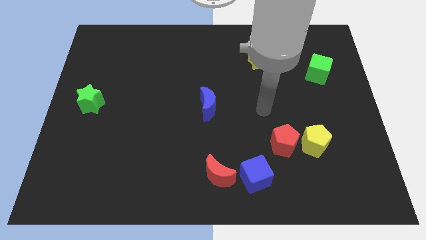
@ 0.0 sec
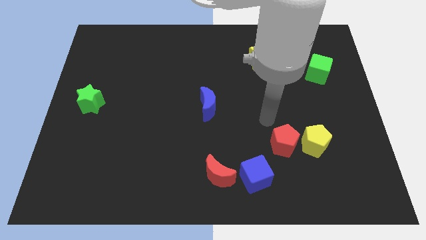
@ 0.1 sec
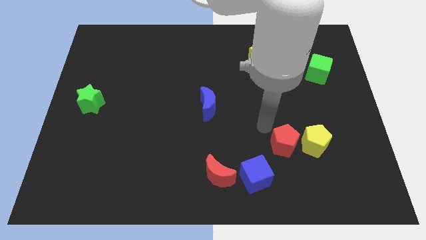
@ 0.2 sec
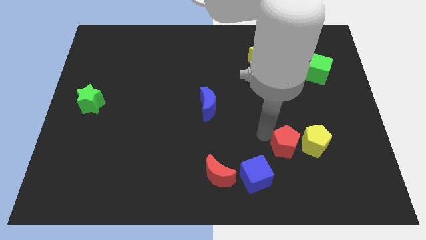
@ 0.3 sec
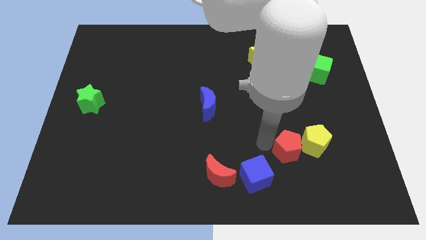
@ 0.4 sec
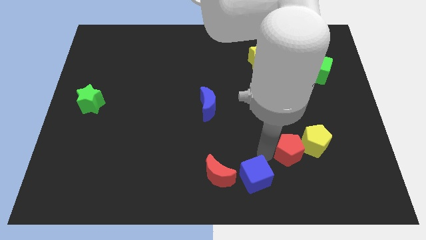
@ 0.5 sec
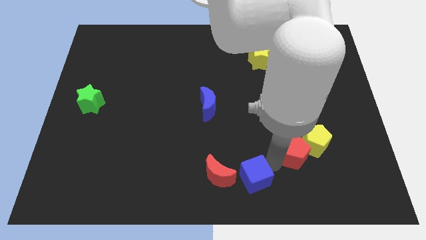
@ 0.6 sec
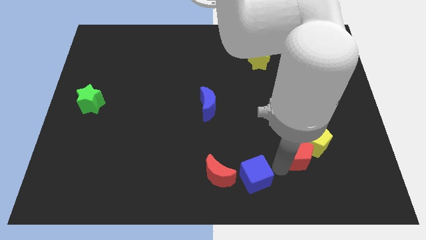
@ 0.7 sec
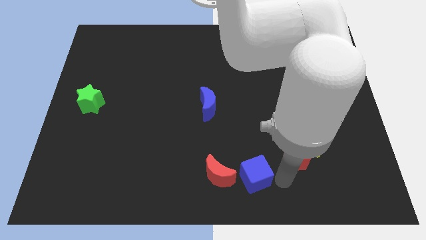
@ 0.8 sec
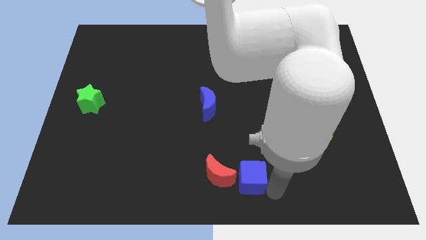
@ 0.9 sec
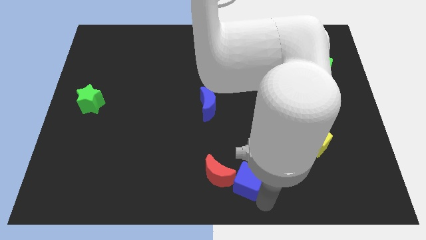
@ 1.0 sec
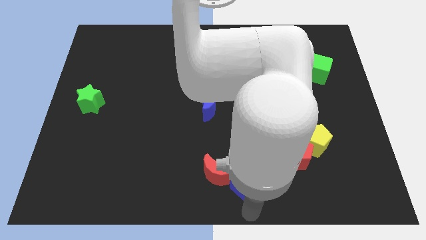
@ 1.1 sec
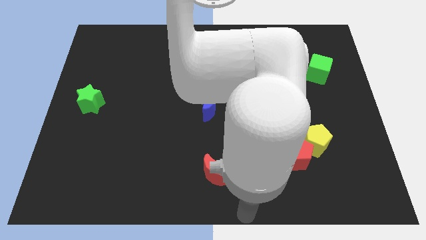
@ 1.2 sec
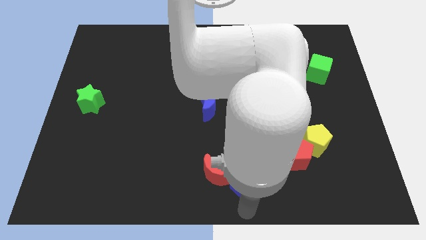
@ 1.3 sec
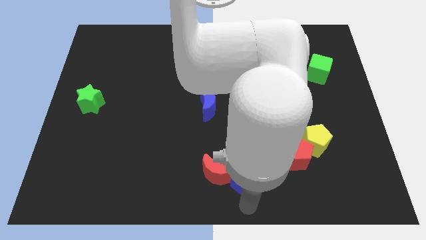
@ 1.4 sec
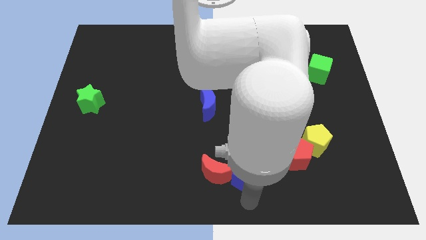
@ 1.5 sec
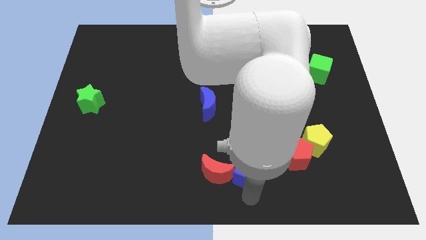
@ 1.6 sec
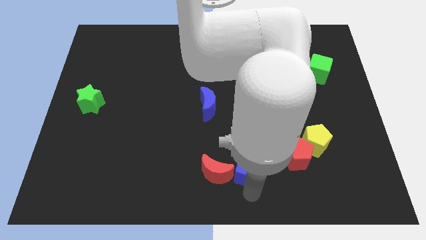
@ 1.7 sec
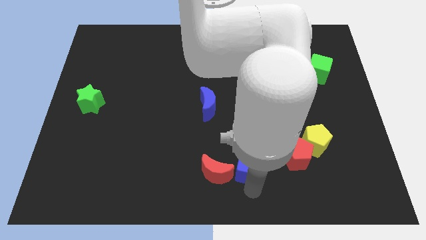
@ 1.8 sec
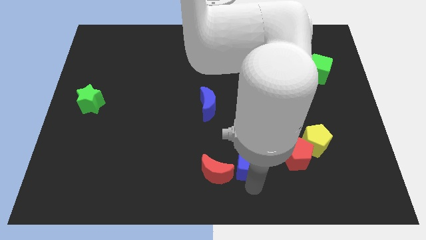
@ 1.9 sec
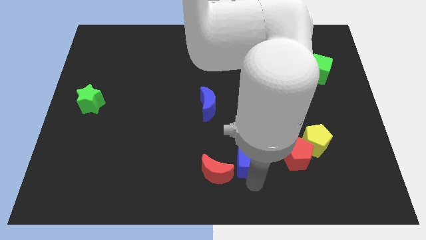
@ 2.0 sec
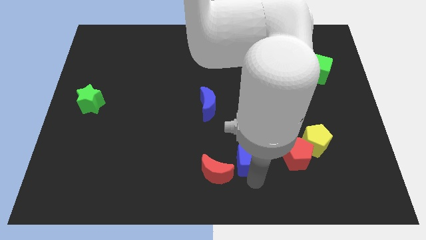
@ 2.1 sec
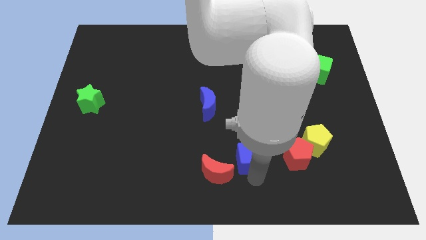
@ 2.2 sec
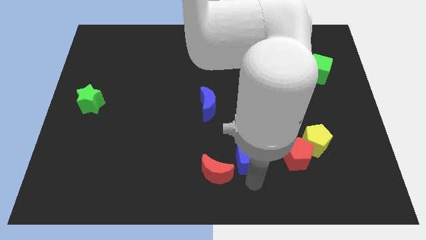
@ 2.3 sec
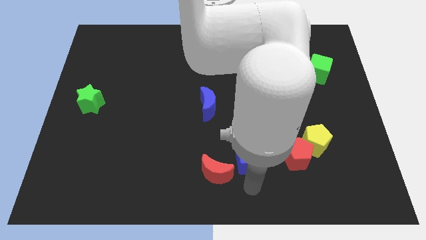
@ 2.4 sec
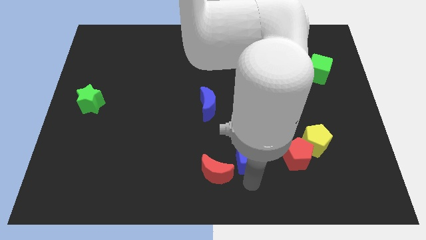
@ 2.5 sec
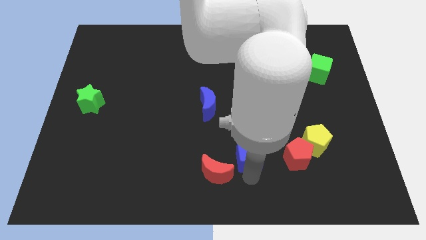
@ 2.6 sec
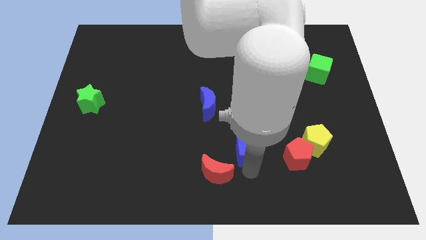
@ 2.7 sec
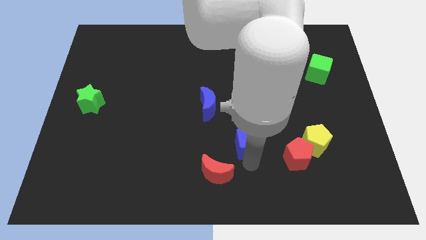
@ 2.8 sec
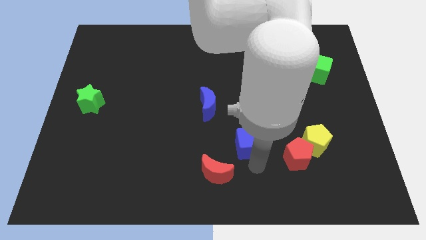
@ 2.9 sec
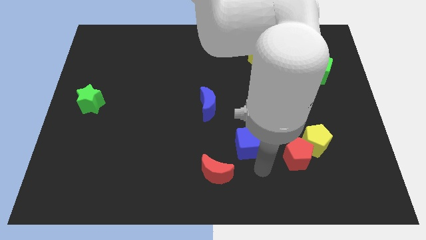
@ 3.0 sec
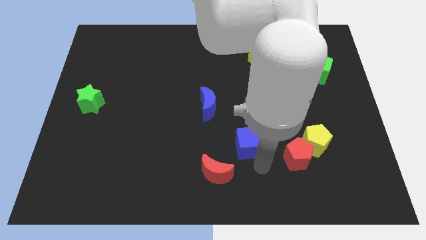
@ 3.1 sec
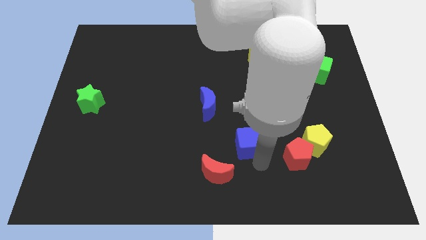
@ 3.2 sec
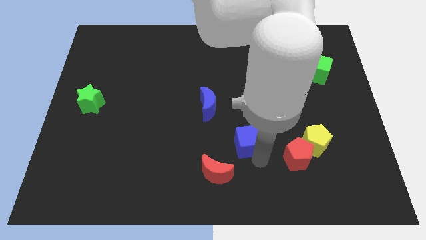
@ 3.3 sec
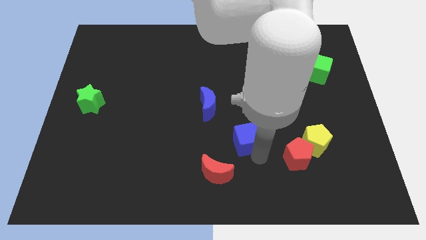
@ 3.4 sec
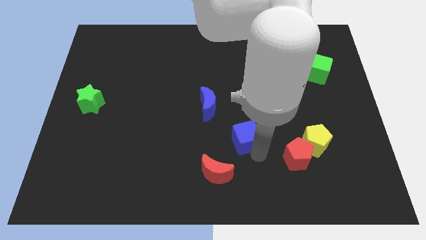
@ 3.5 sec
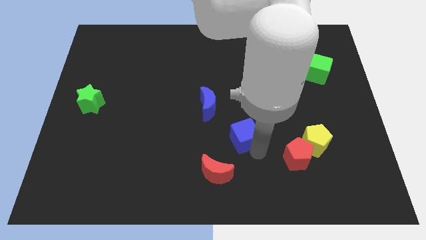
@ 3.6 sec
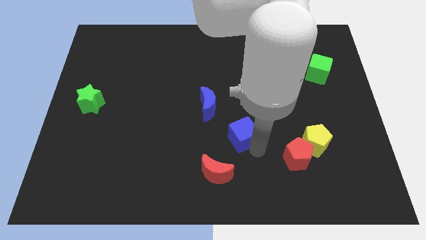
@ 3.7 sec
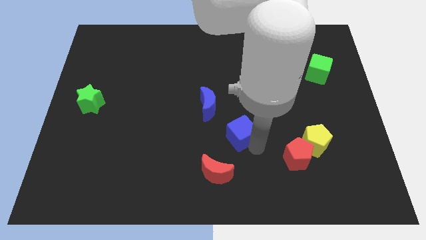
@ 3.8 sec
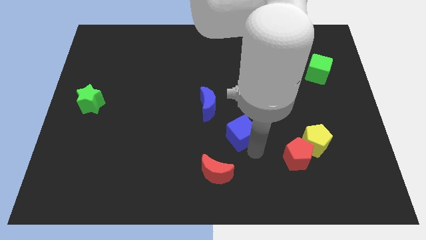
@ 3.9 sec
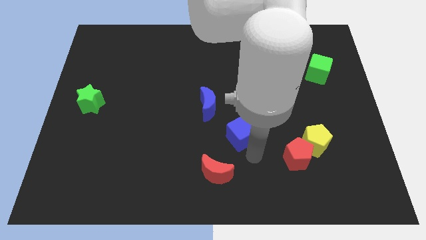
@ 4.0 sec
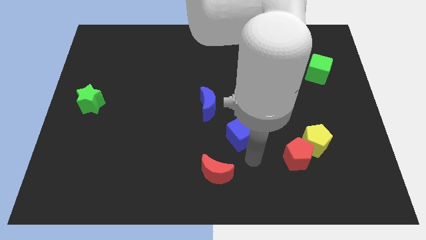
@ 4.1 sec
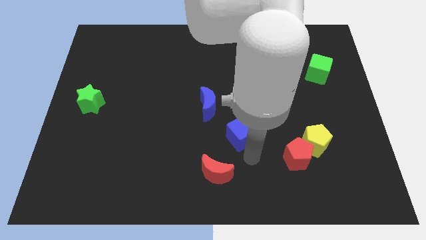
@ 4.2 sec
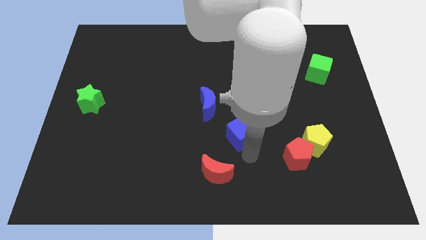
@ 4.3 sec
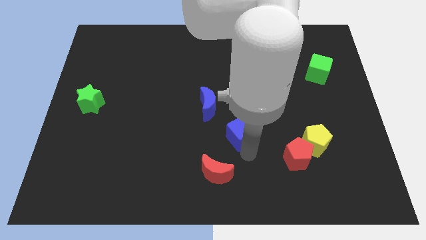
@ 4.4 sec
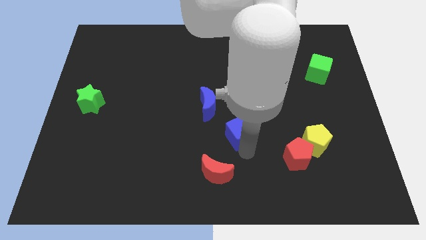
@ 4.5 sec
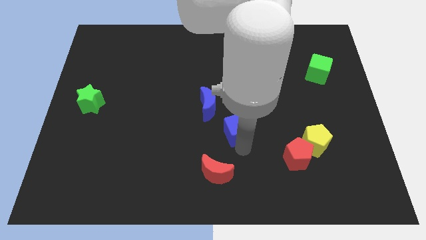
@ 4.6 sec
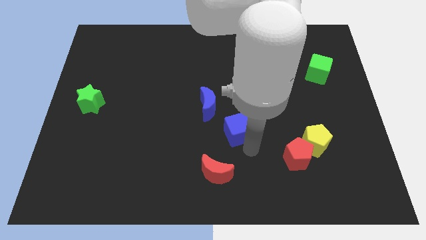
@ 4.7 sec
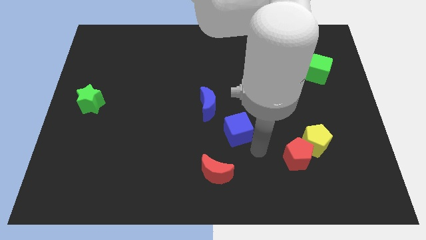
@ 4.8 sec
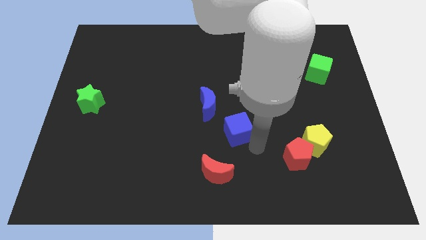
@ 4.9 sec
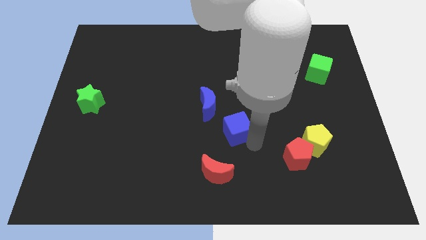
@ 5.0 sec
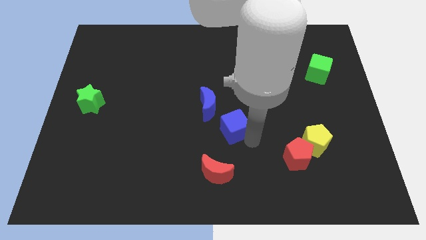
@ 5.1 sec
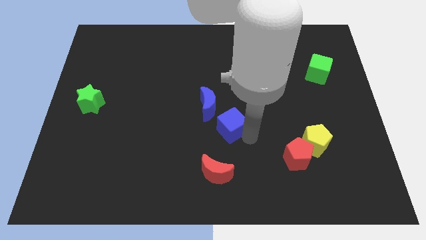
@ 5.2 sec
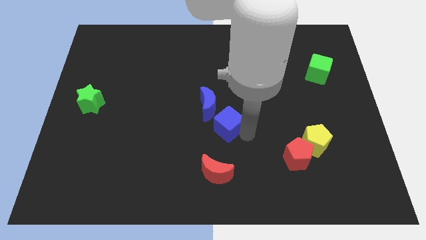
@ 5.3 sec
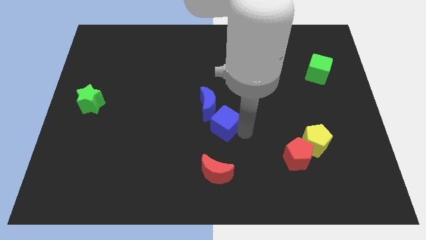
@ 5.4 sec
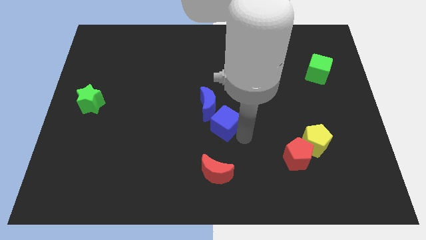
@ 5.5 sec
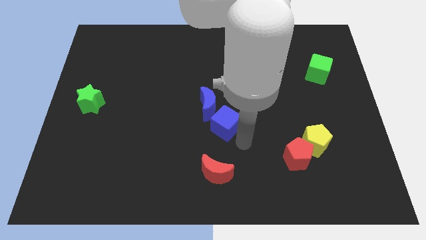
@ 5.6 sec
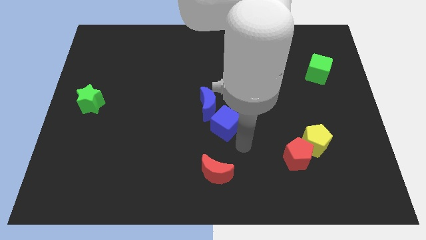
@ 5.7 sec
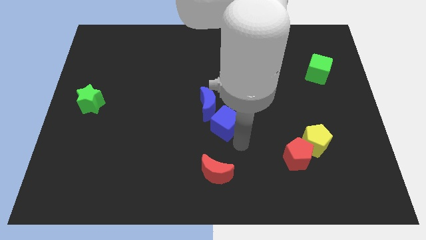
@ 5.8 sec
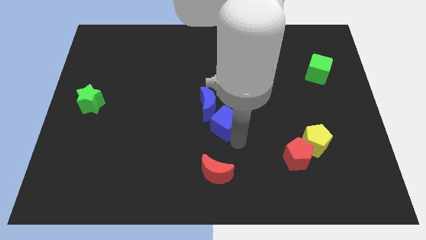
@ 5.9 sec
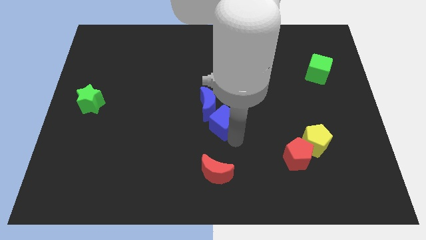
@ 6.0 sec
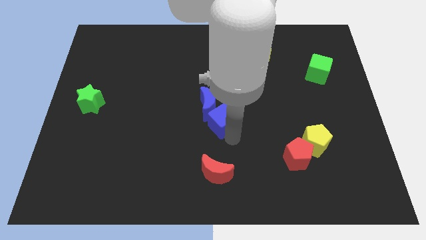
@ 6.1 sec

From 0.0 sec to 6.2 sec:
slide the blue cube to the blue moon

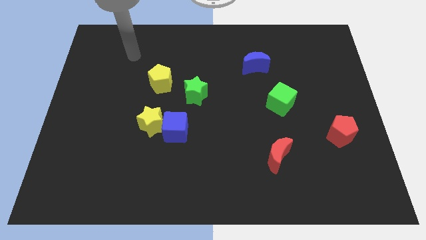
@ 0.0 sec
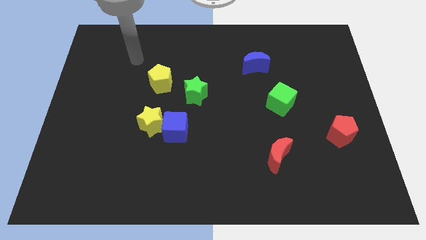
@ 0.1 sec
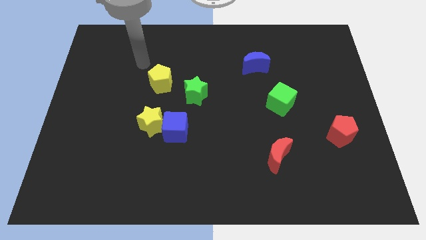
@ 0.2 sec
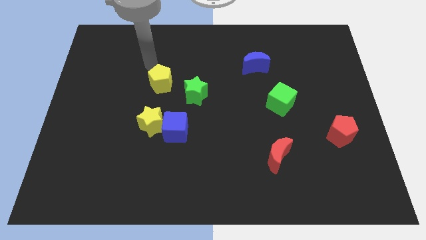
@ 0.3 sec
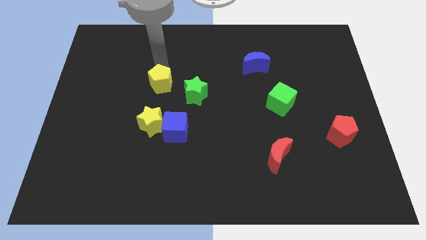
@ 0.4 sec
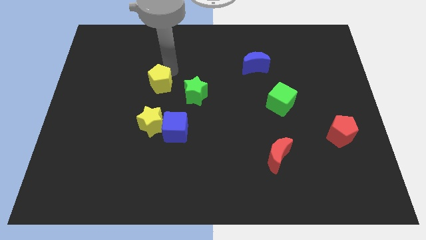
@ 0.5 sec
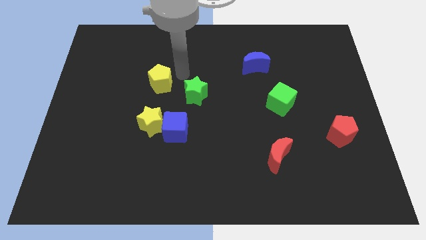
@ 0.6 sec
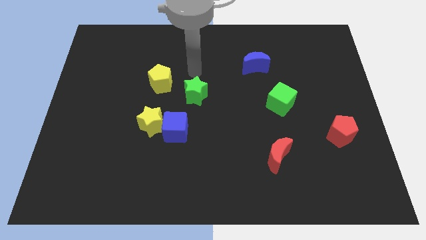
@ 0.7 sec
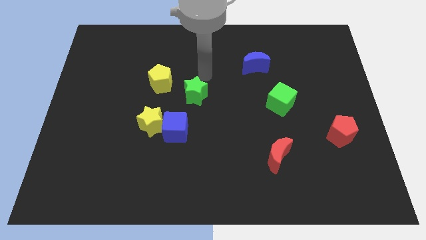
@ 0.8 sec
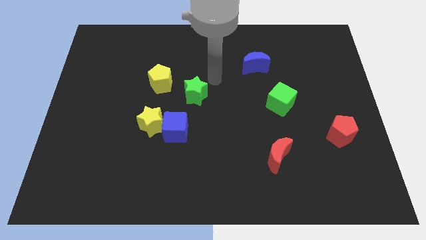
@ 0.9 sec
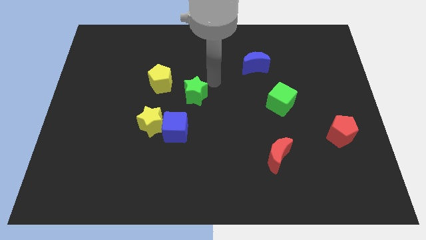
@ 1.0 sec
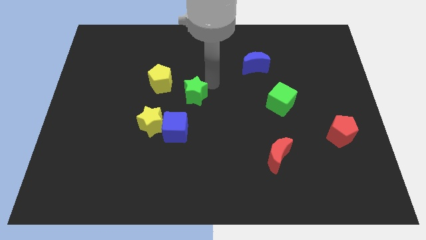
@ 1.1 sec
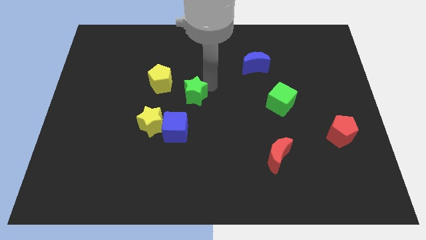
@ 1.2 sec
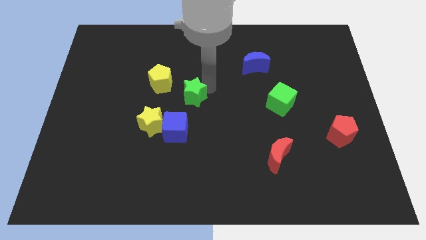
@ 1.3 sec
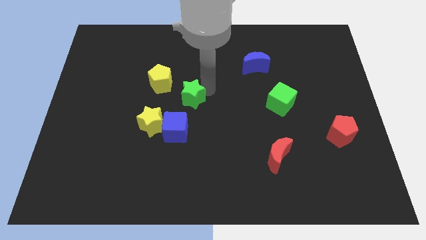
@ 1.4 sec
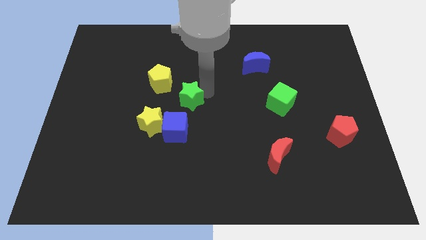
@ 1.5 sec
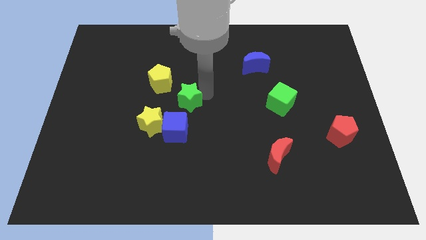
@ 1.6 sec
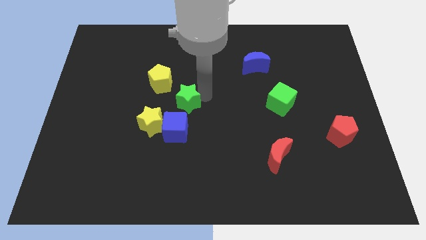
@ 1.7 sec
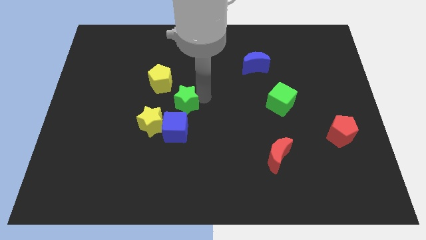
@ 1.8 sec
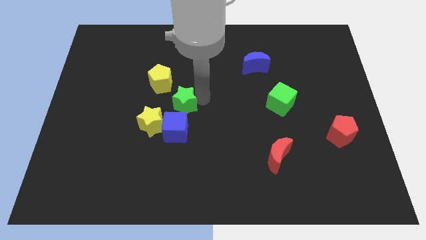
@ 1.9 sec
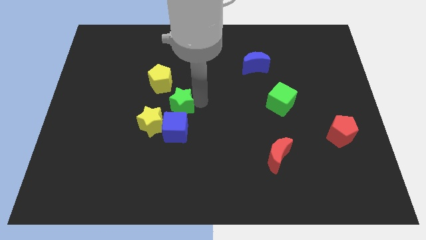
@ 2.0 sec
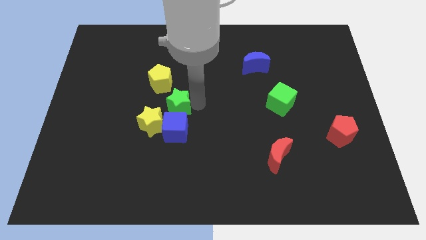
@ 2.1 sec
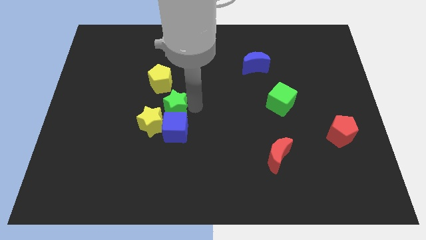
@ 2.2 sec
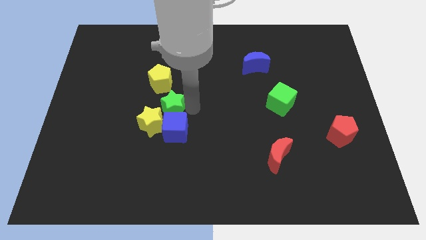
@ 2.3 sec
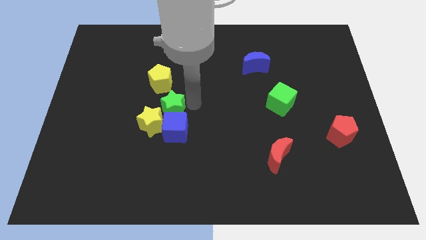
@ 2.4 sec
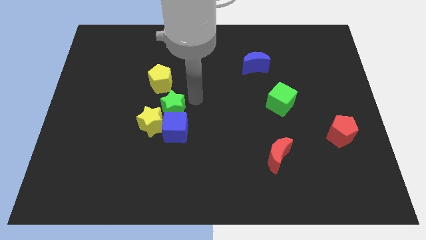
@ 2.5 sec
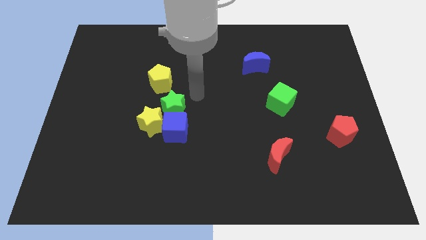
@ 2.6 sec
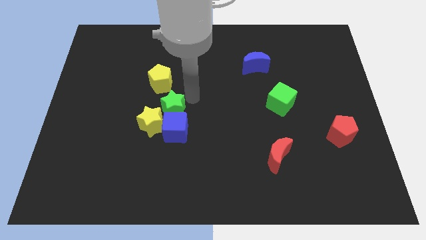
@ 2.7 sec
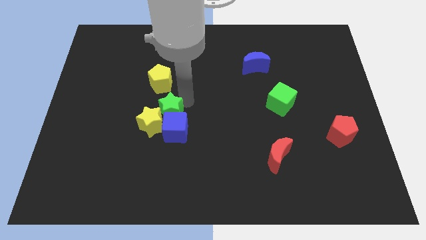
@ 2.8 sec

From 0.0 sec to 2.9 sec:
push the green star close to the yellow star
